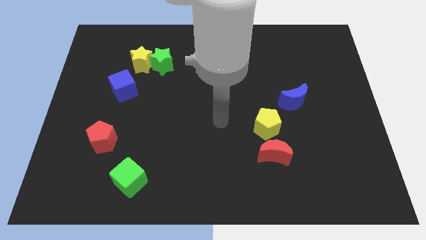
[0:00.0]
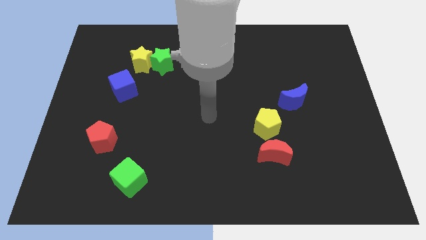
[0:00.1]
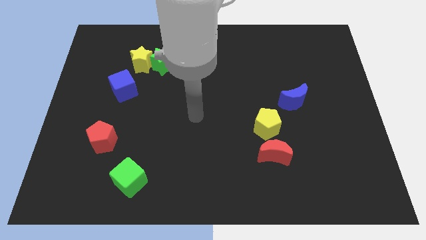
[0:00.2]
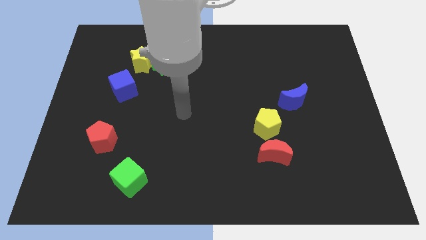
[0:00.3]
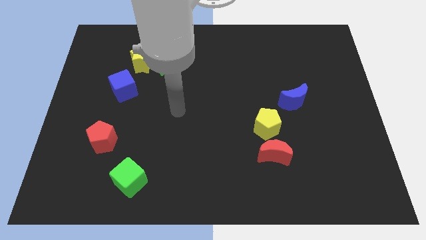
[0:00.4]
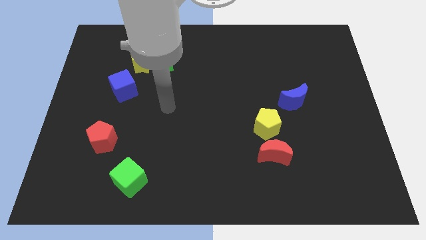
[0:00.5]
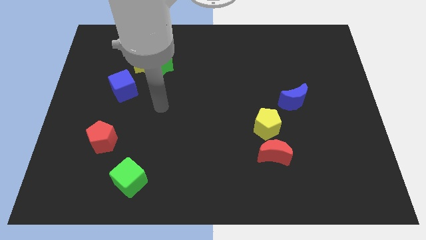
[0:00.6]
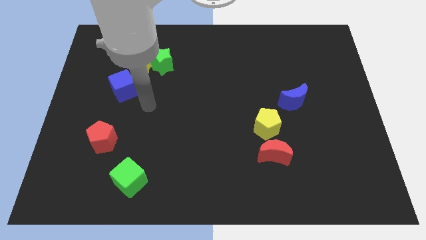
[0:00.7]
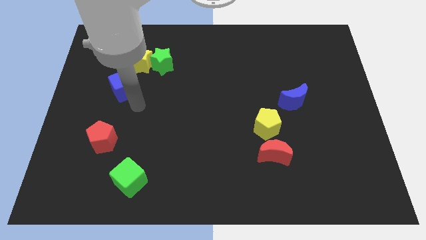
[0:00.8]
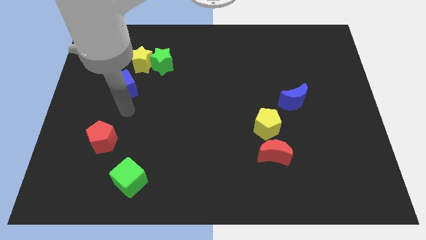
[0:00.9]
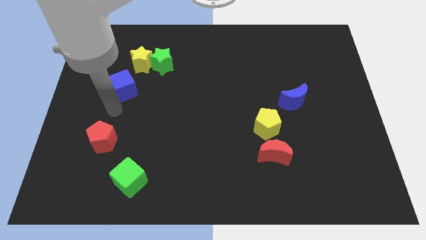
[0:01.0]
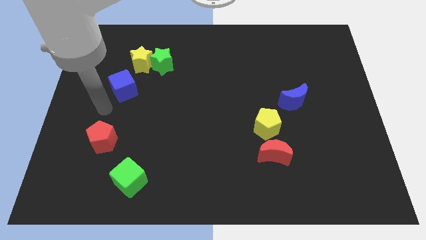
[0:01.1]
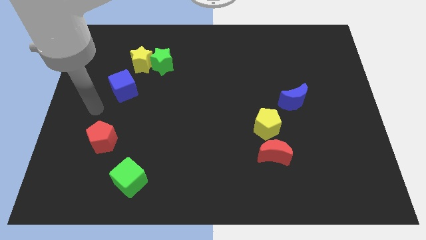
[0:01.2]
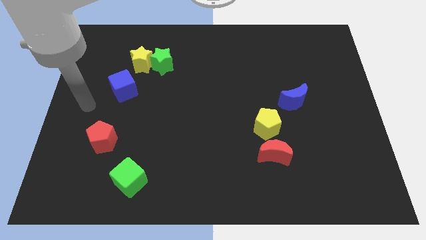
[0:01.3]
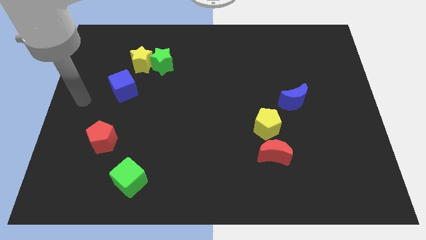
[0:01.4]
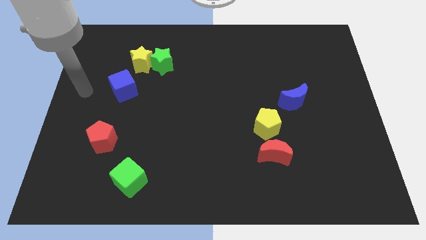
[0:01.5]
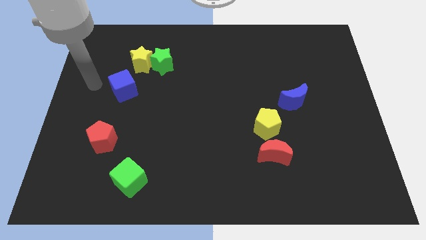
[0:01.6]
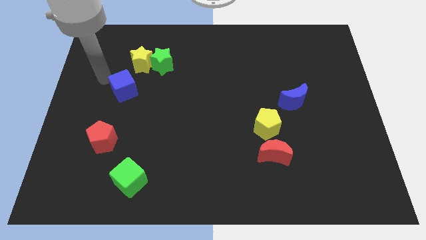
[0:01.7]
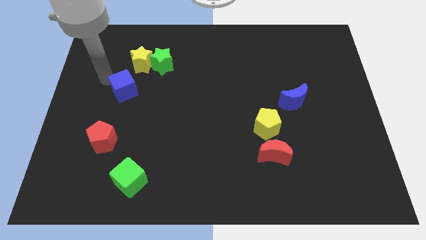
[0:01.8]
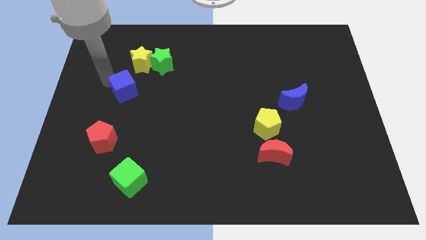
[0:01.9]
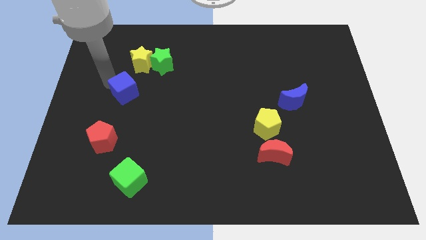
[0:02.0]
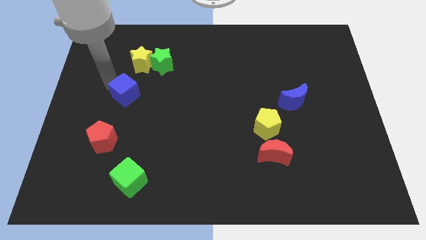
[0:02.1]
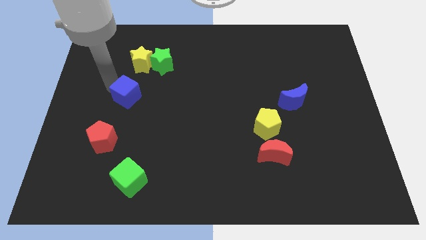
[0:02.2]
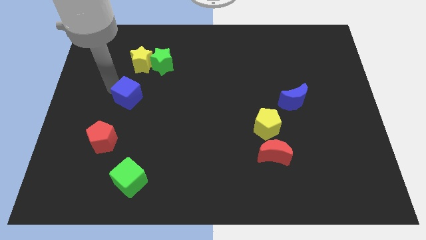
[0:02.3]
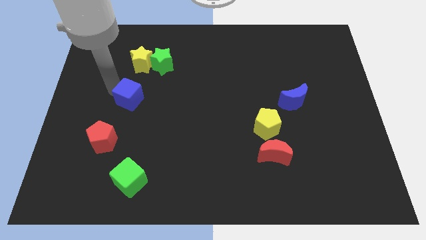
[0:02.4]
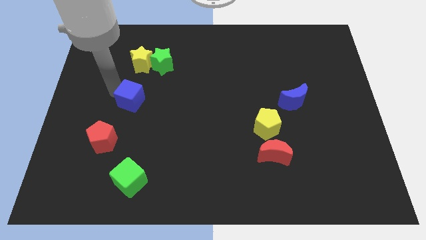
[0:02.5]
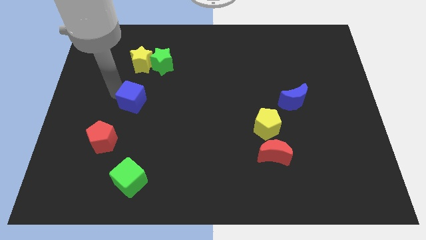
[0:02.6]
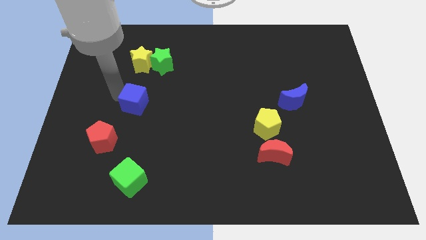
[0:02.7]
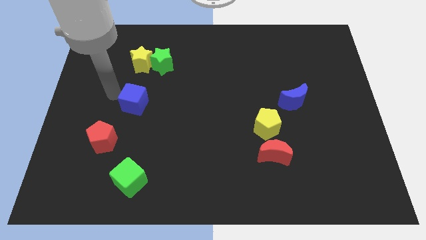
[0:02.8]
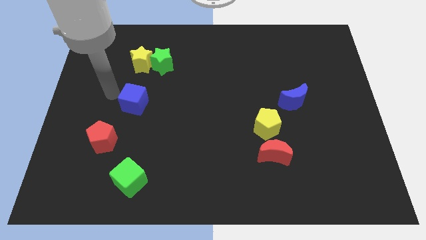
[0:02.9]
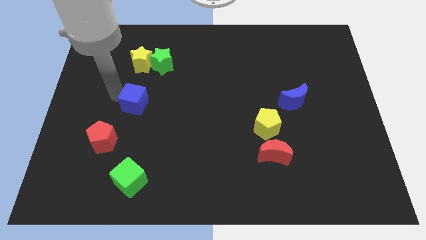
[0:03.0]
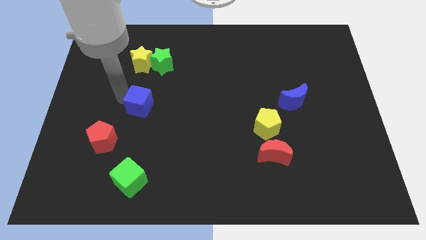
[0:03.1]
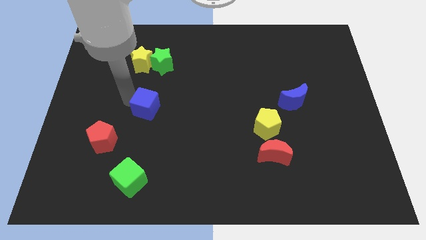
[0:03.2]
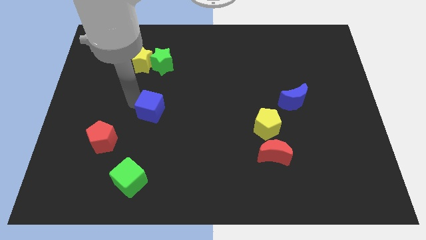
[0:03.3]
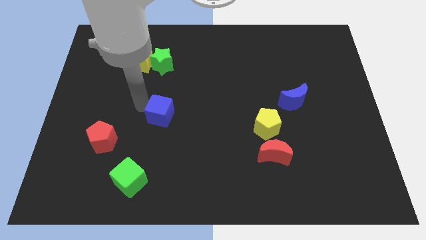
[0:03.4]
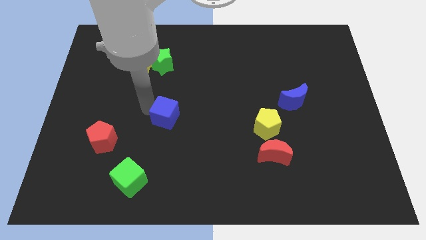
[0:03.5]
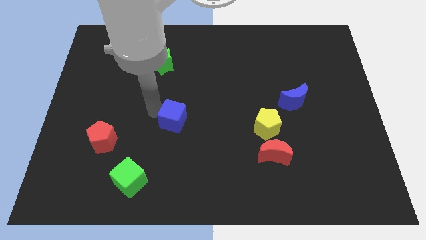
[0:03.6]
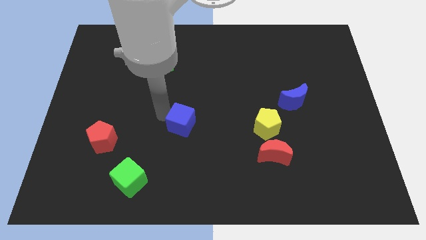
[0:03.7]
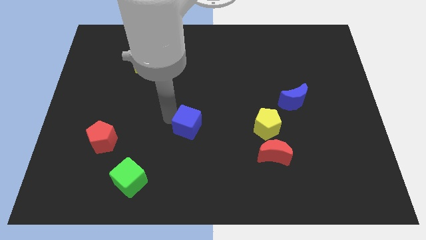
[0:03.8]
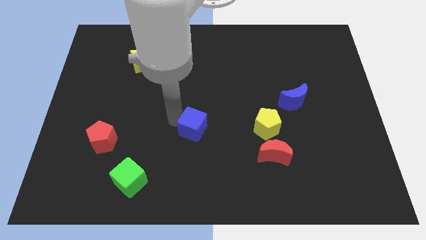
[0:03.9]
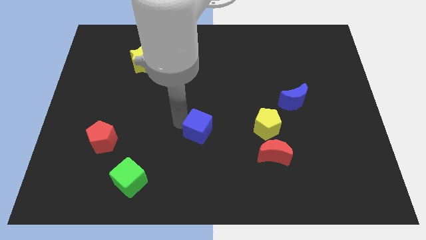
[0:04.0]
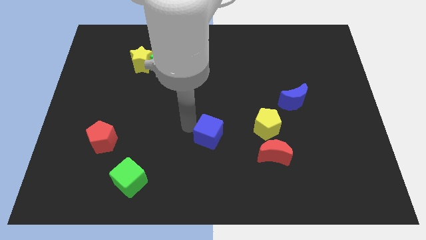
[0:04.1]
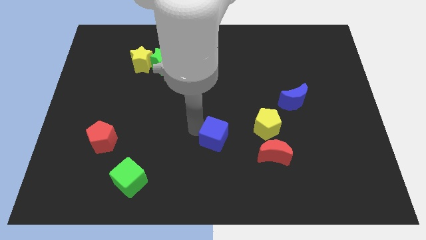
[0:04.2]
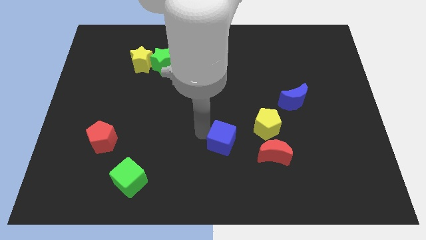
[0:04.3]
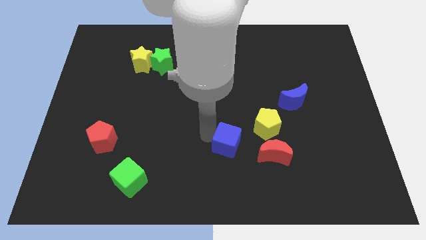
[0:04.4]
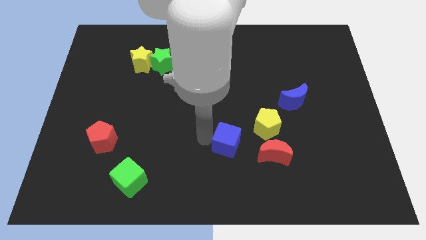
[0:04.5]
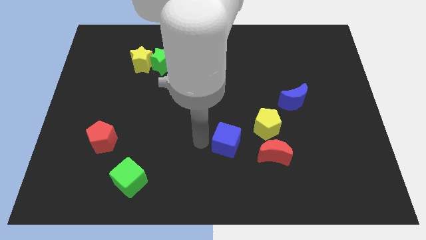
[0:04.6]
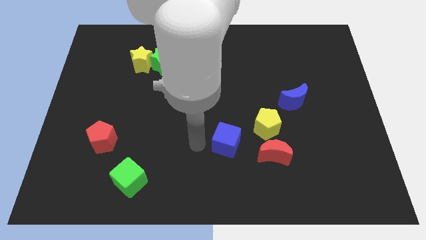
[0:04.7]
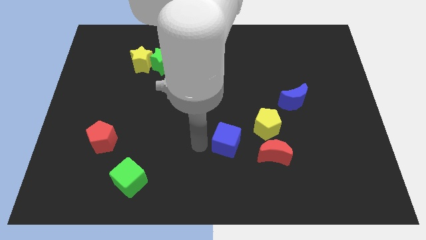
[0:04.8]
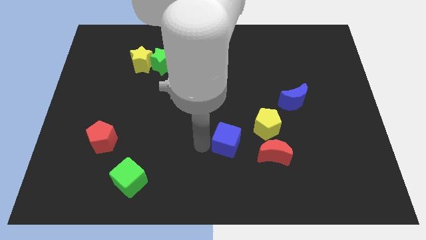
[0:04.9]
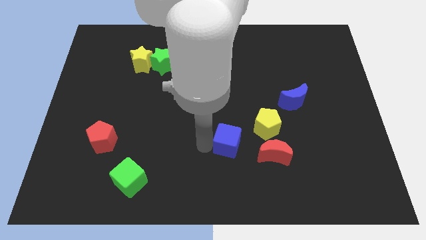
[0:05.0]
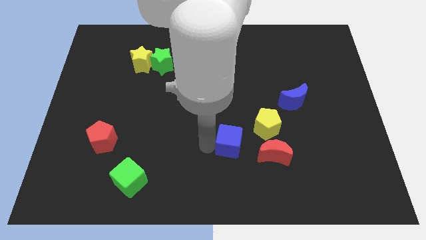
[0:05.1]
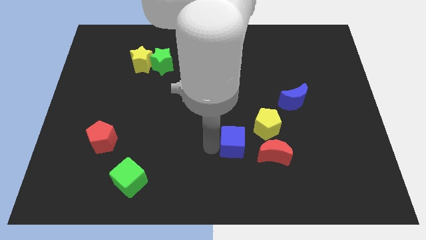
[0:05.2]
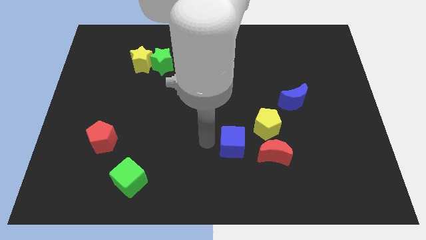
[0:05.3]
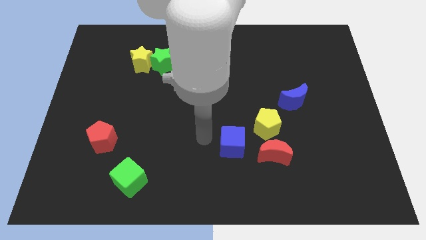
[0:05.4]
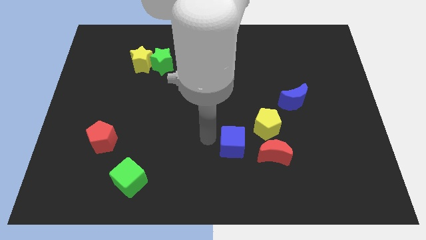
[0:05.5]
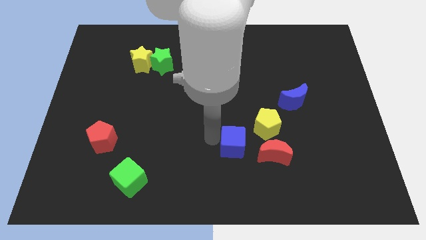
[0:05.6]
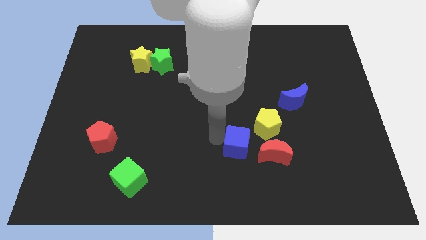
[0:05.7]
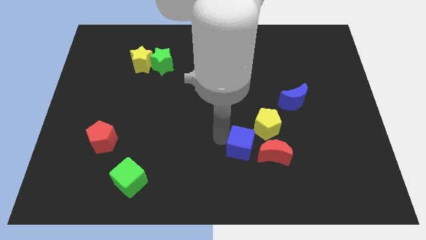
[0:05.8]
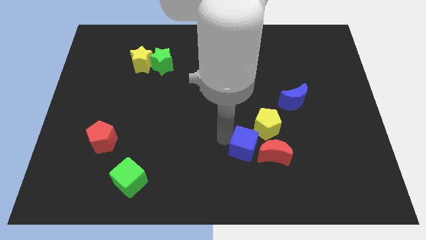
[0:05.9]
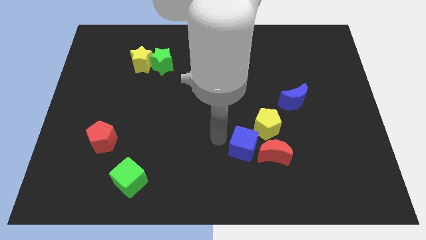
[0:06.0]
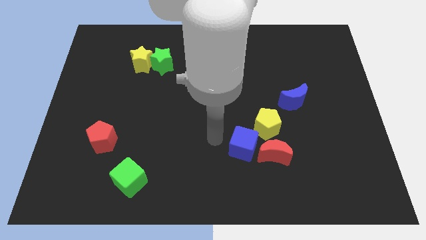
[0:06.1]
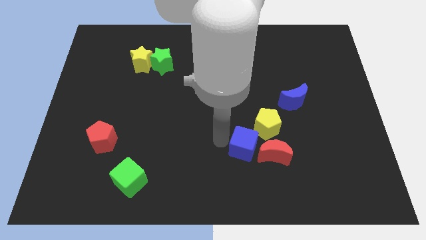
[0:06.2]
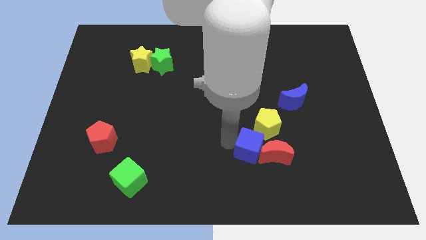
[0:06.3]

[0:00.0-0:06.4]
put the blue cube towards the red moon
